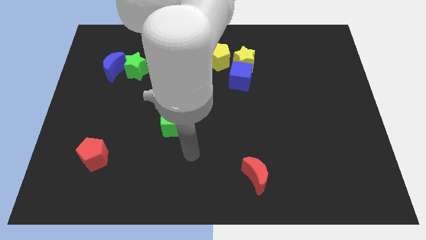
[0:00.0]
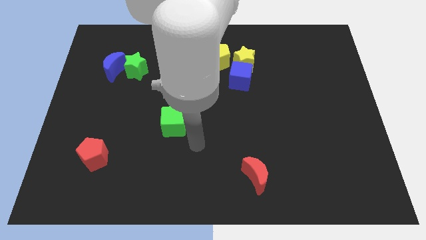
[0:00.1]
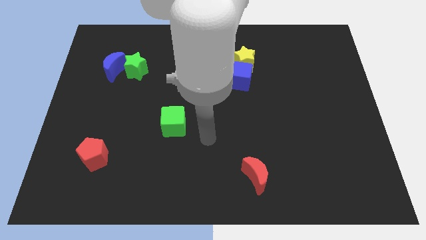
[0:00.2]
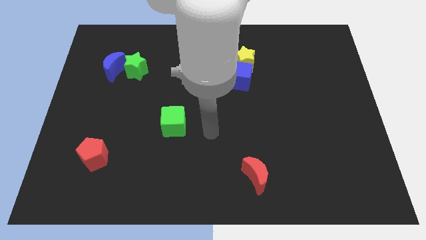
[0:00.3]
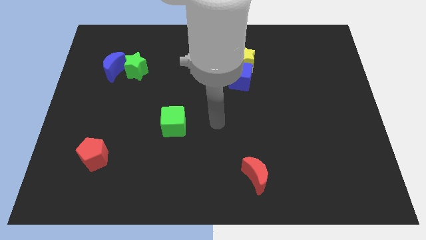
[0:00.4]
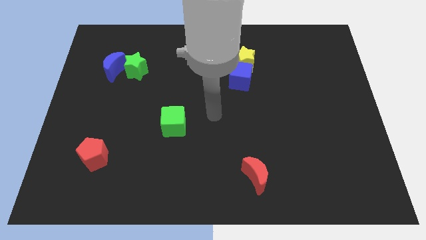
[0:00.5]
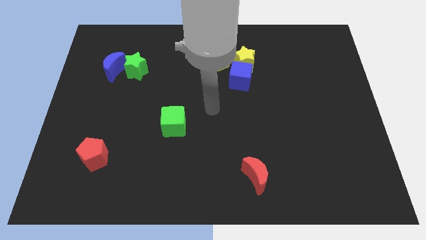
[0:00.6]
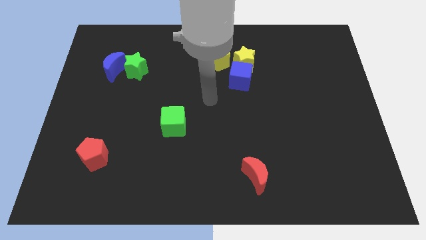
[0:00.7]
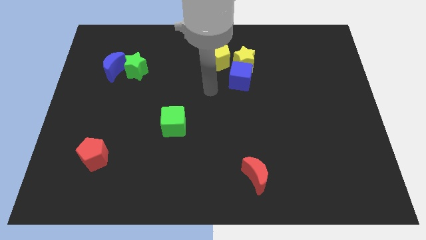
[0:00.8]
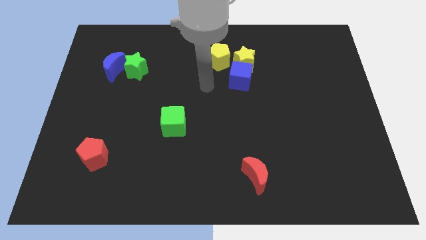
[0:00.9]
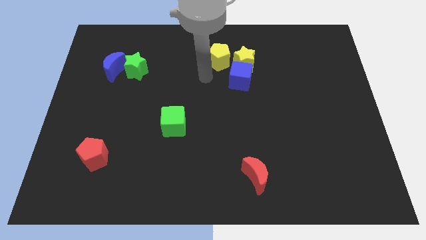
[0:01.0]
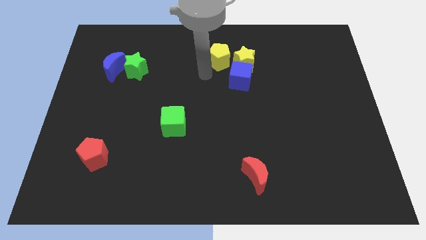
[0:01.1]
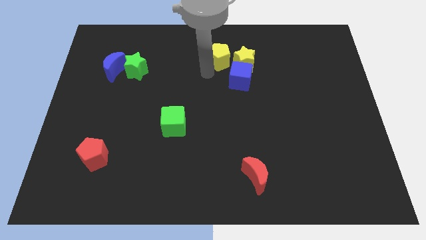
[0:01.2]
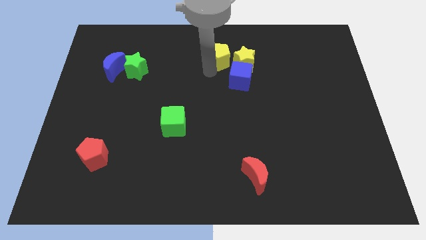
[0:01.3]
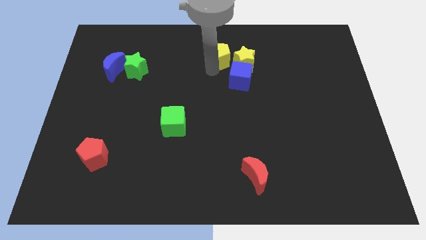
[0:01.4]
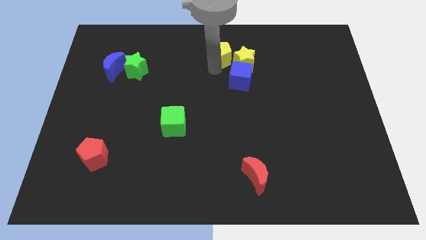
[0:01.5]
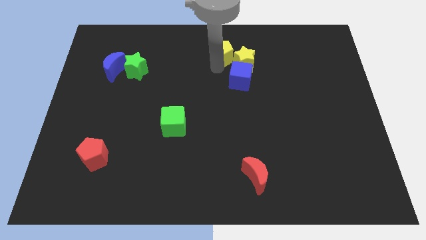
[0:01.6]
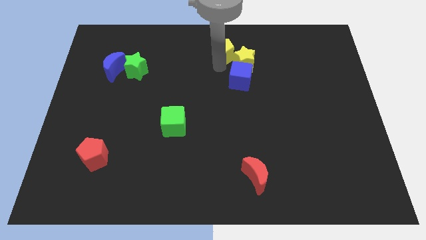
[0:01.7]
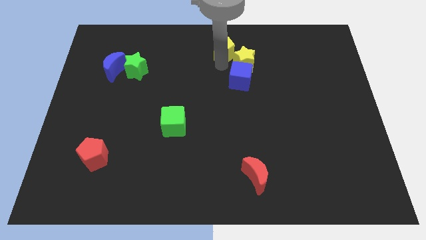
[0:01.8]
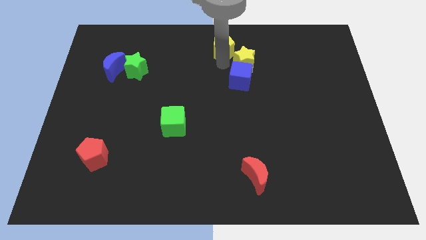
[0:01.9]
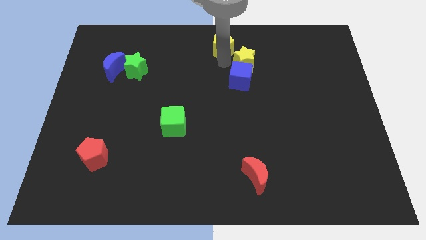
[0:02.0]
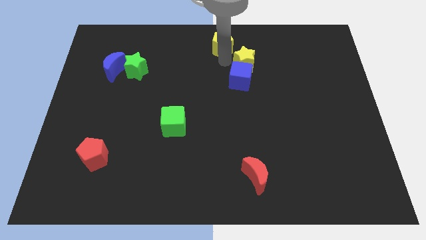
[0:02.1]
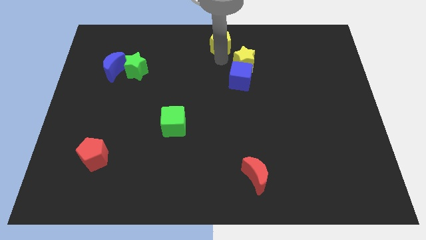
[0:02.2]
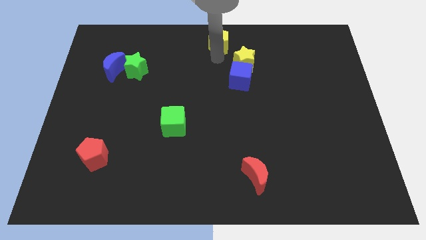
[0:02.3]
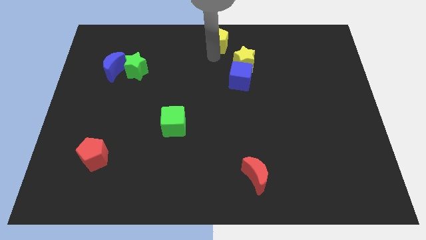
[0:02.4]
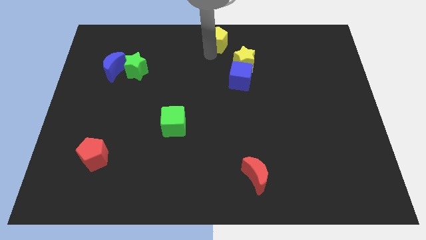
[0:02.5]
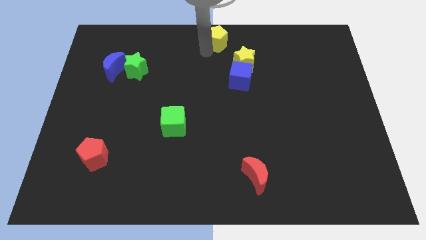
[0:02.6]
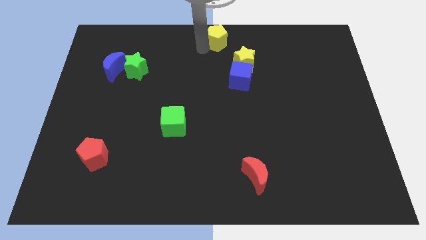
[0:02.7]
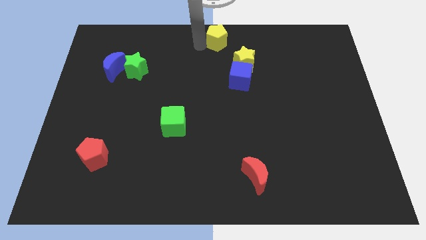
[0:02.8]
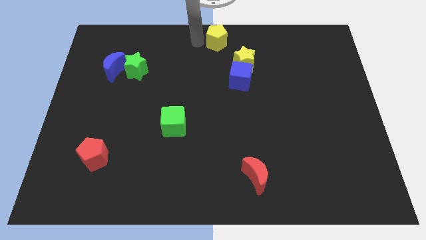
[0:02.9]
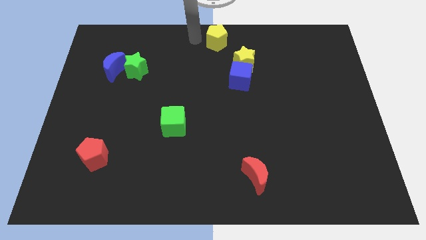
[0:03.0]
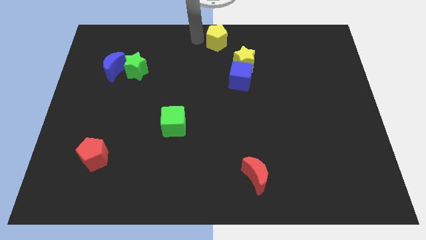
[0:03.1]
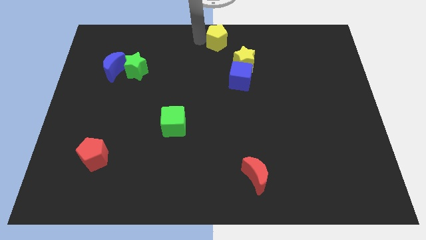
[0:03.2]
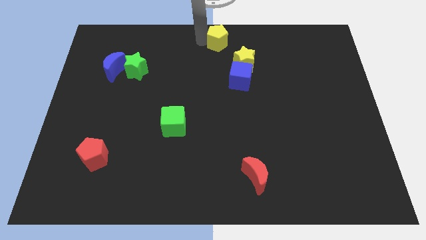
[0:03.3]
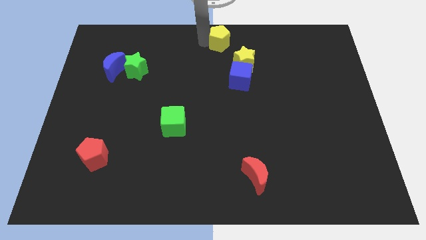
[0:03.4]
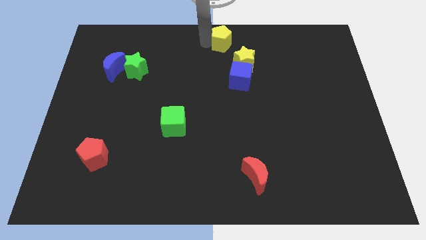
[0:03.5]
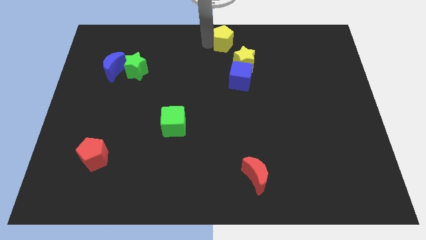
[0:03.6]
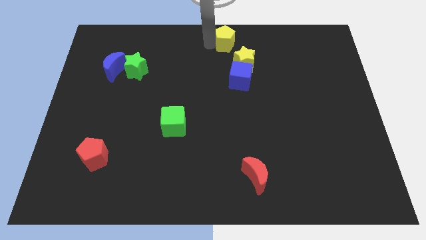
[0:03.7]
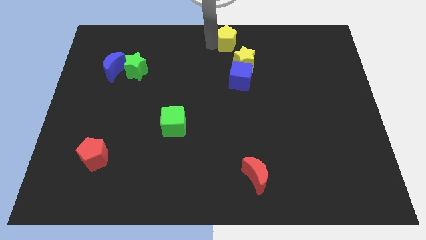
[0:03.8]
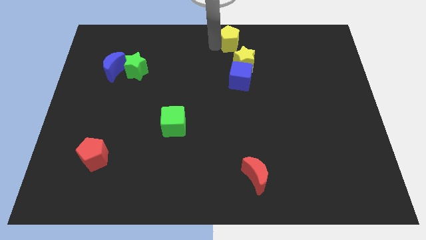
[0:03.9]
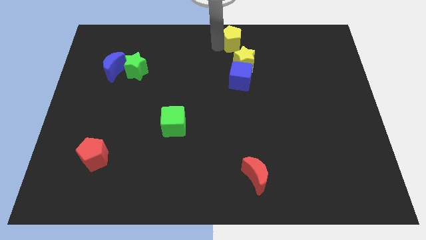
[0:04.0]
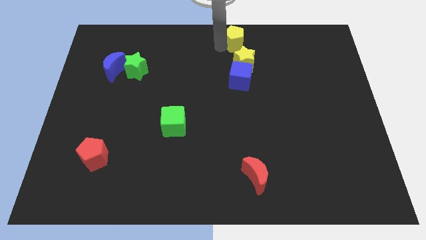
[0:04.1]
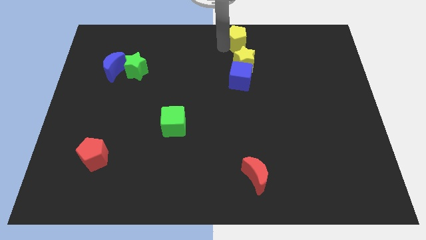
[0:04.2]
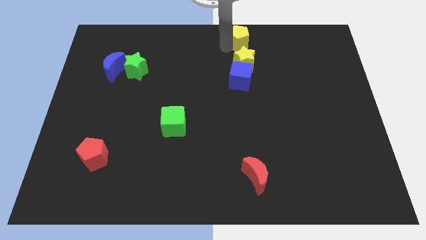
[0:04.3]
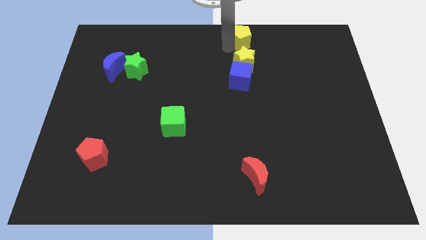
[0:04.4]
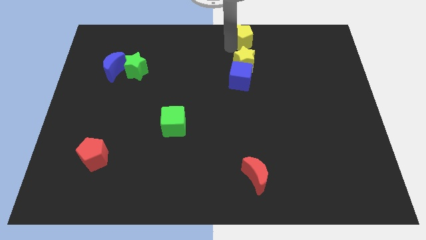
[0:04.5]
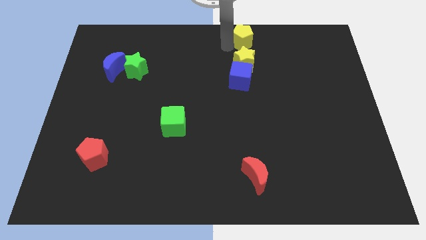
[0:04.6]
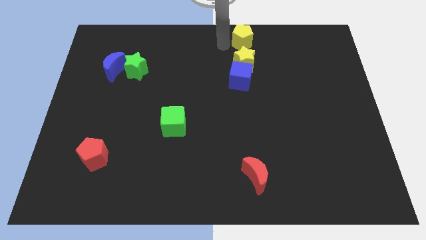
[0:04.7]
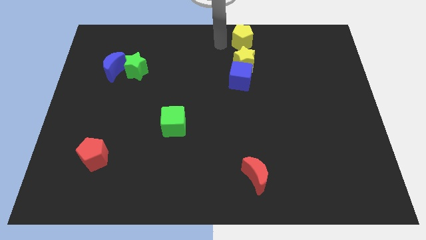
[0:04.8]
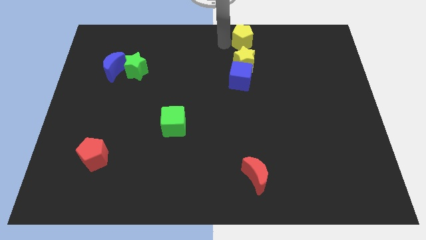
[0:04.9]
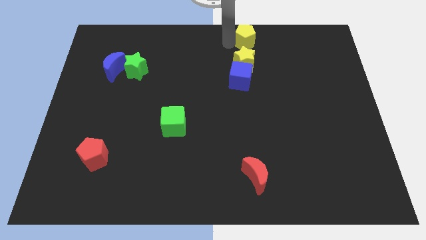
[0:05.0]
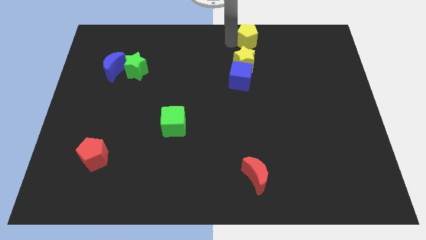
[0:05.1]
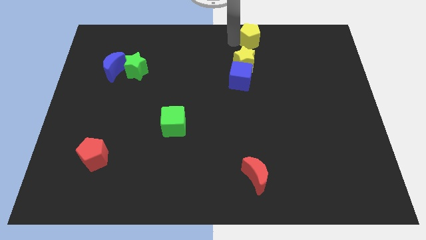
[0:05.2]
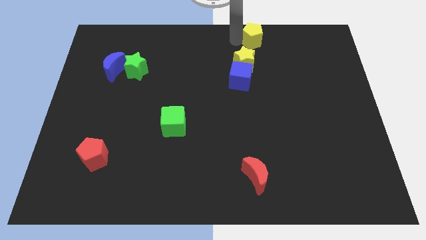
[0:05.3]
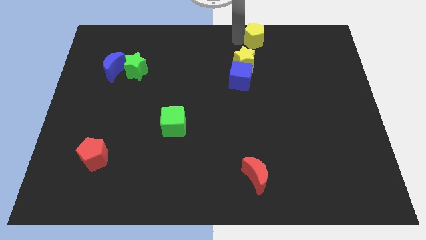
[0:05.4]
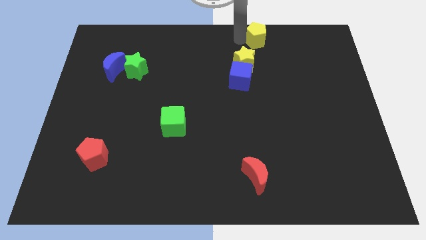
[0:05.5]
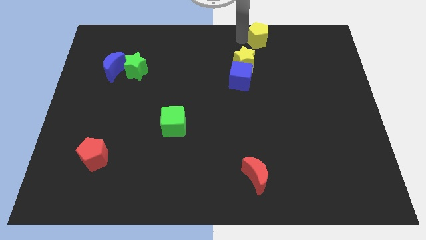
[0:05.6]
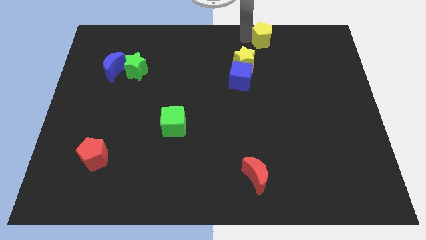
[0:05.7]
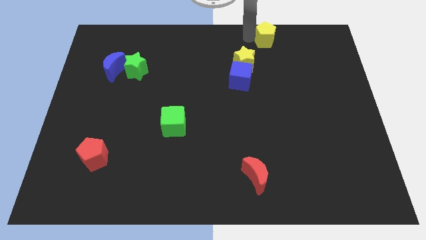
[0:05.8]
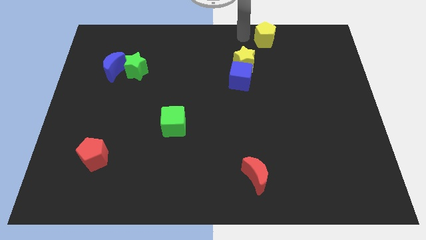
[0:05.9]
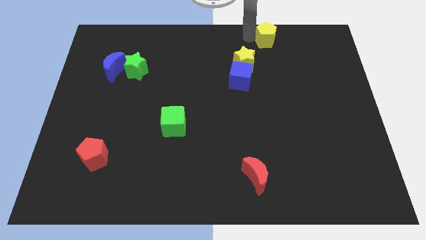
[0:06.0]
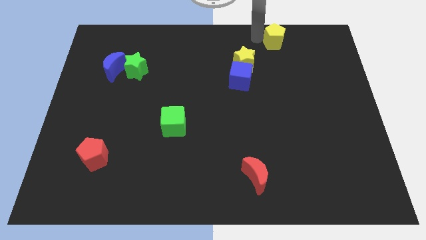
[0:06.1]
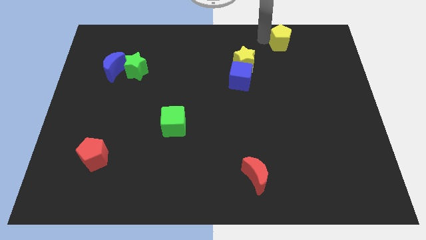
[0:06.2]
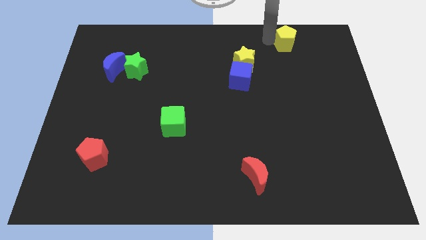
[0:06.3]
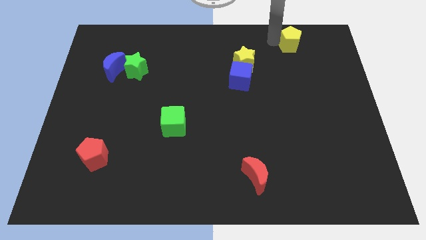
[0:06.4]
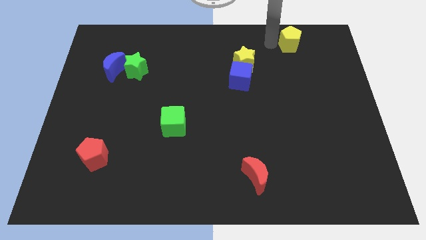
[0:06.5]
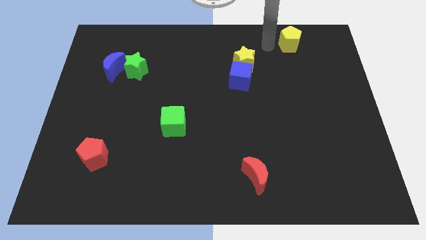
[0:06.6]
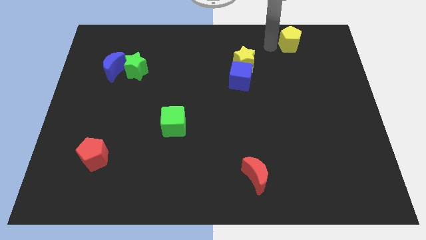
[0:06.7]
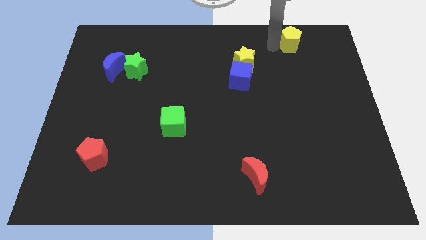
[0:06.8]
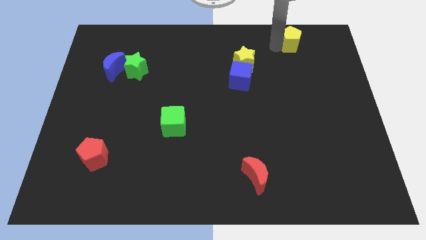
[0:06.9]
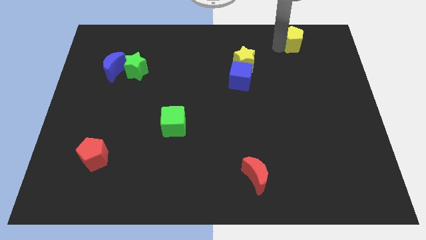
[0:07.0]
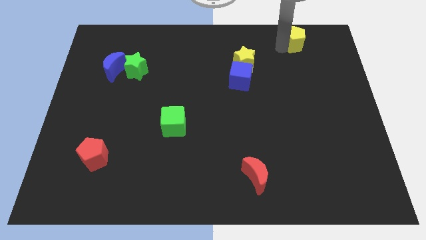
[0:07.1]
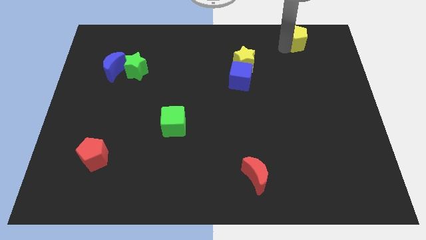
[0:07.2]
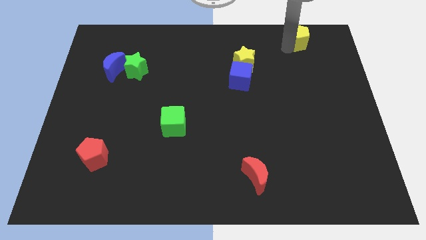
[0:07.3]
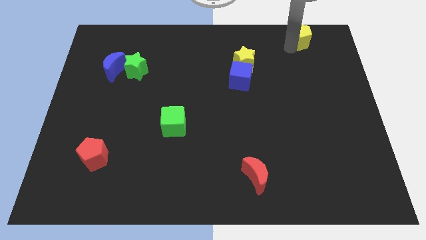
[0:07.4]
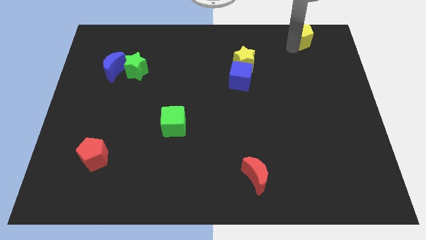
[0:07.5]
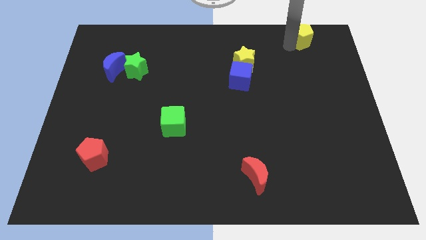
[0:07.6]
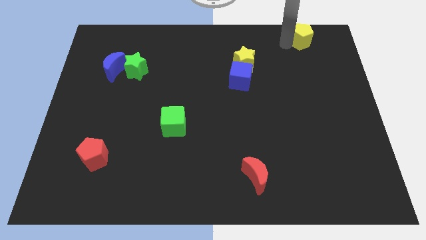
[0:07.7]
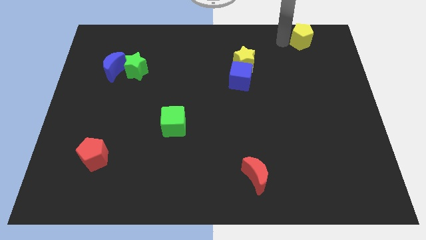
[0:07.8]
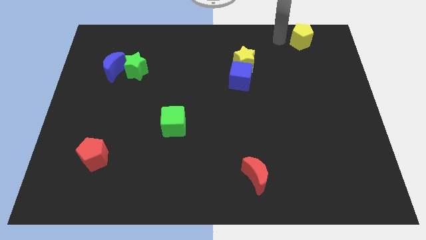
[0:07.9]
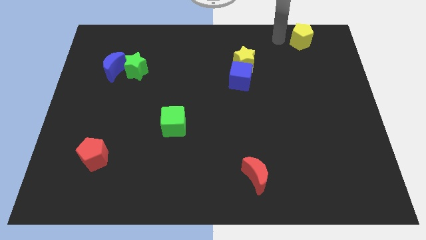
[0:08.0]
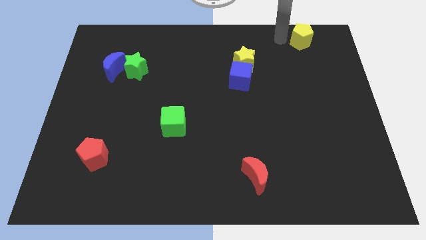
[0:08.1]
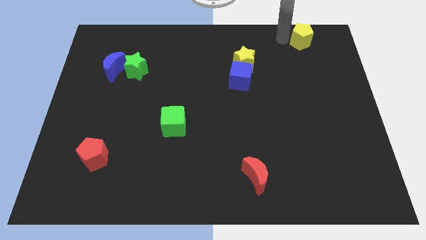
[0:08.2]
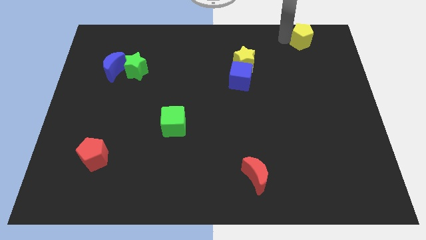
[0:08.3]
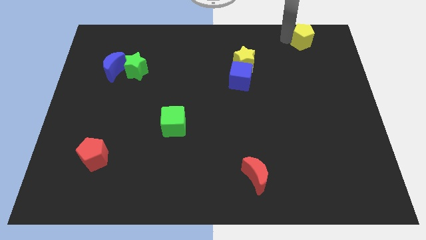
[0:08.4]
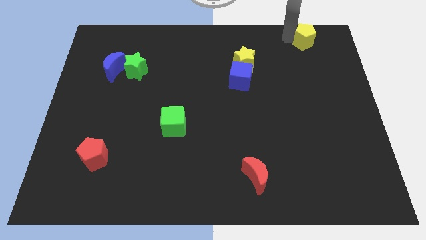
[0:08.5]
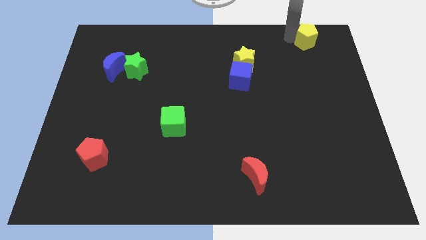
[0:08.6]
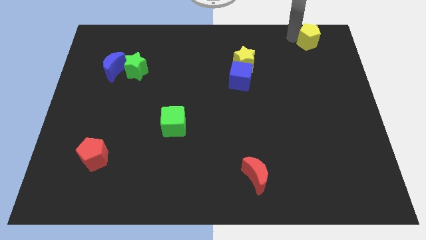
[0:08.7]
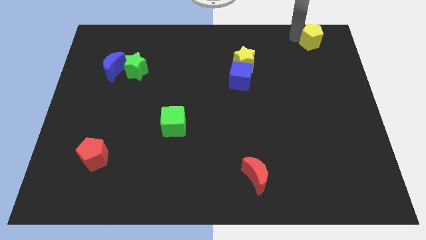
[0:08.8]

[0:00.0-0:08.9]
move the yellow pentagon to the top right
